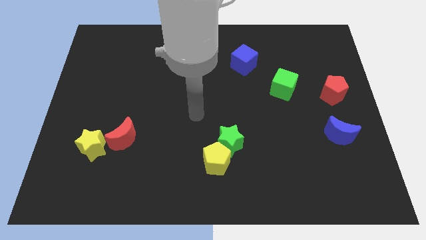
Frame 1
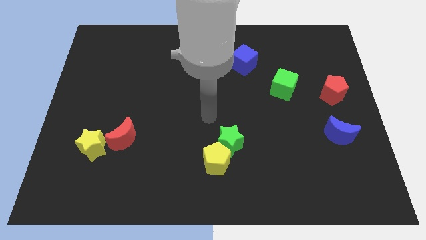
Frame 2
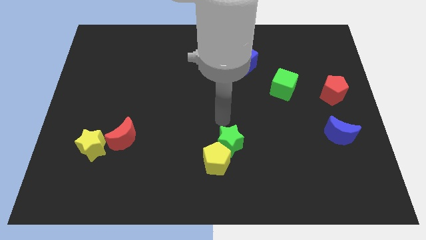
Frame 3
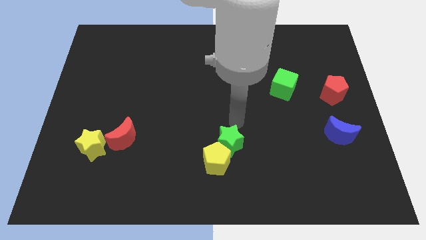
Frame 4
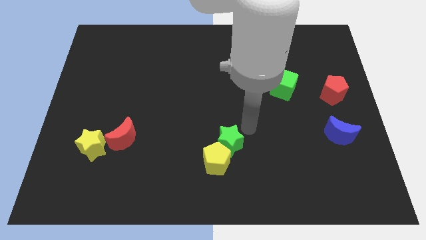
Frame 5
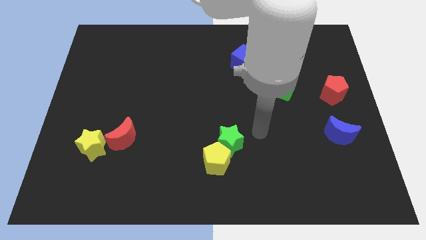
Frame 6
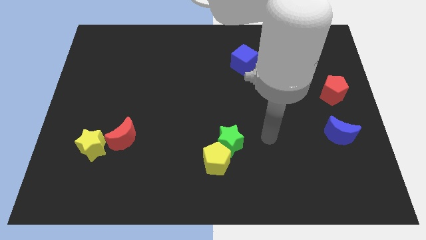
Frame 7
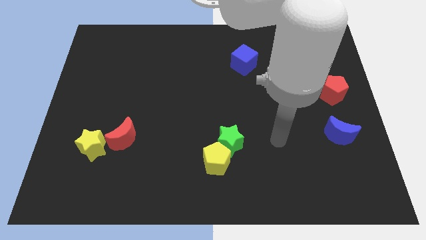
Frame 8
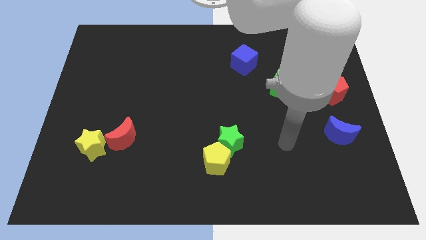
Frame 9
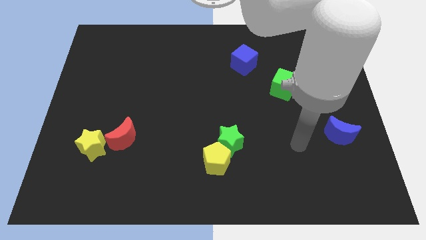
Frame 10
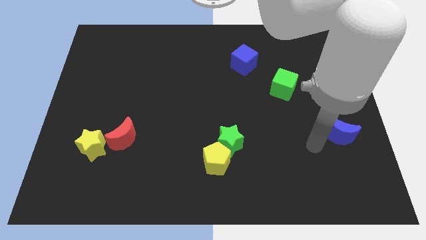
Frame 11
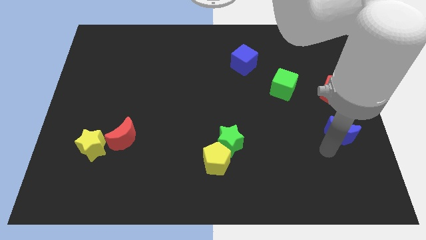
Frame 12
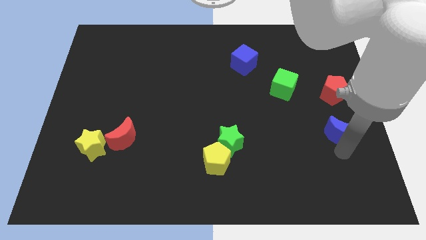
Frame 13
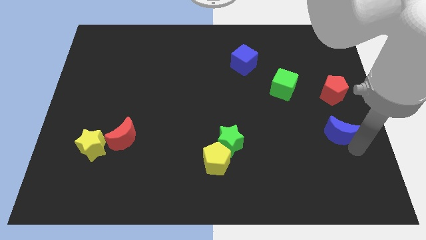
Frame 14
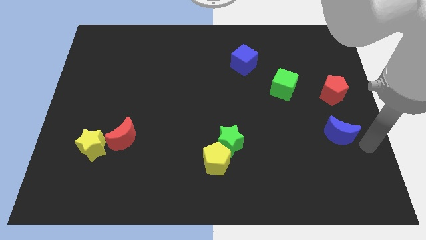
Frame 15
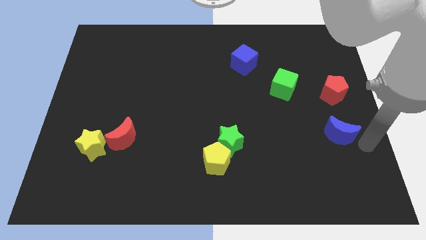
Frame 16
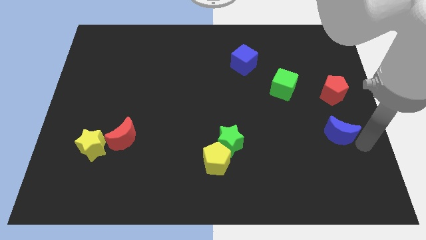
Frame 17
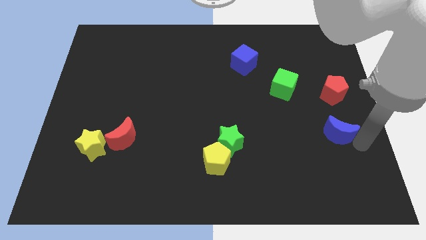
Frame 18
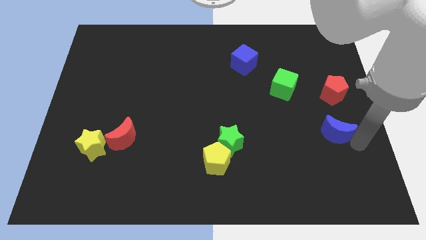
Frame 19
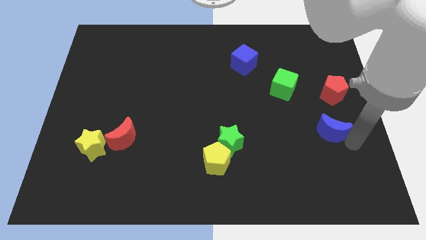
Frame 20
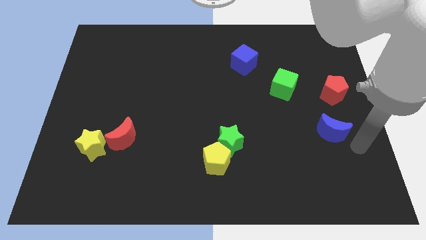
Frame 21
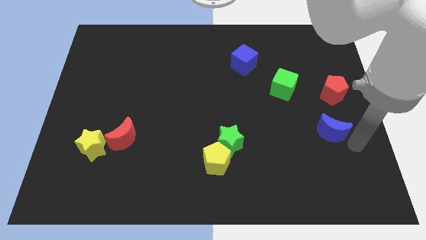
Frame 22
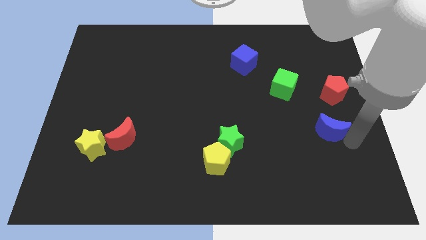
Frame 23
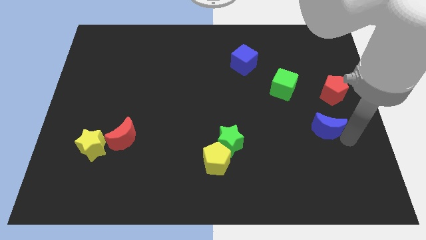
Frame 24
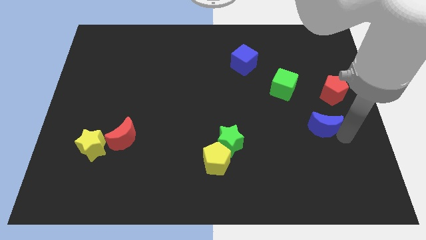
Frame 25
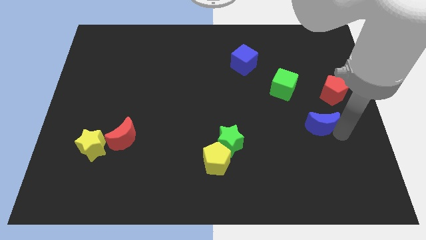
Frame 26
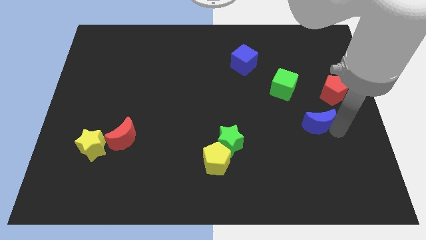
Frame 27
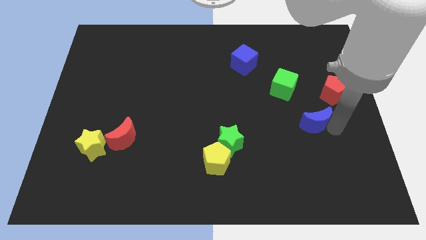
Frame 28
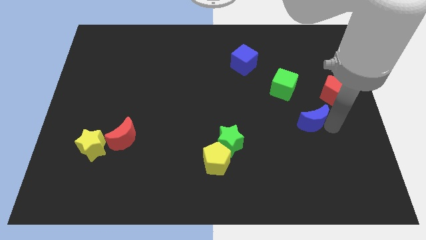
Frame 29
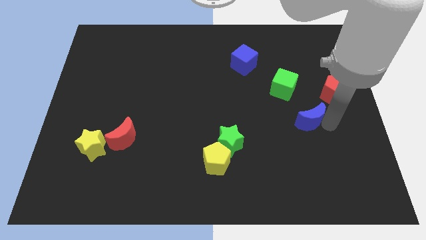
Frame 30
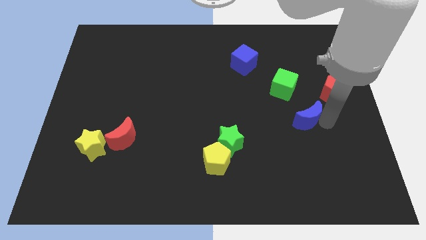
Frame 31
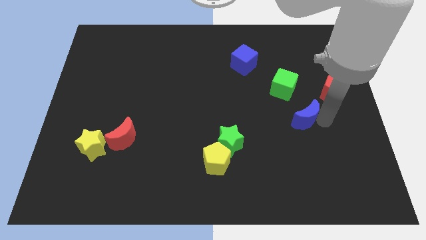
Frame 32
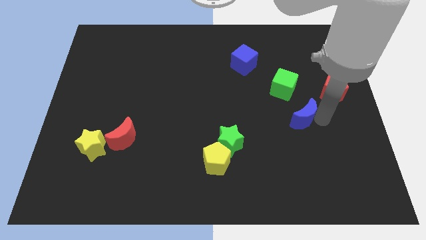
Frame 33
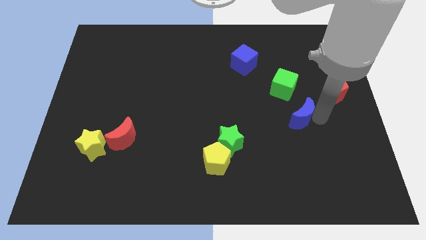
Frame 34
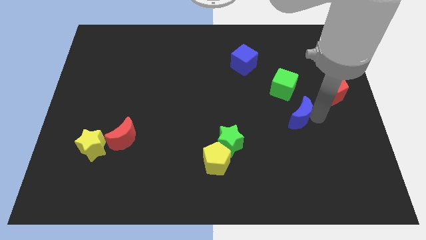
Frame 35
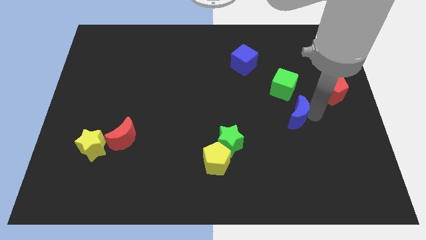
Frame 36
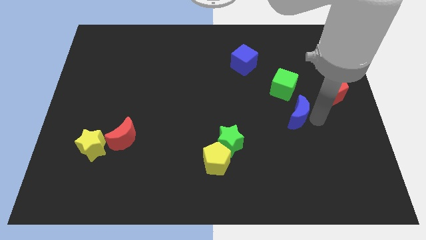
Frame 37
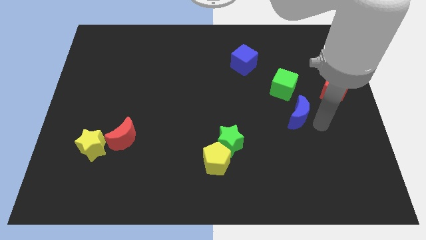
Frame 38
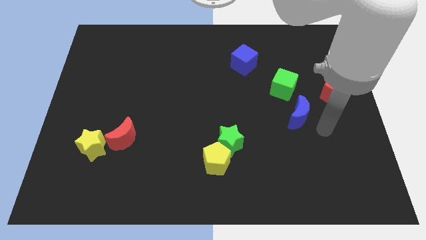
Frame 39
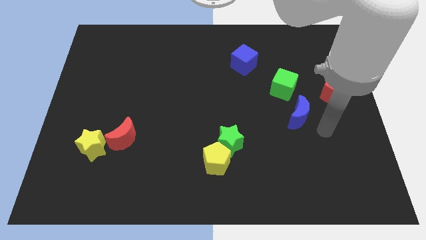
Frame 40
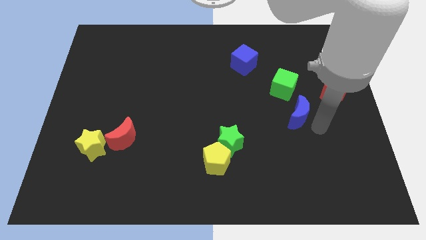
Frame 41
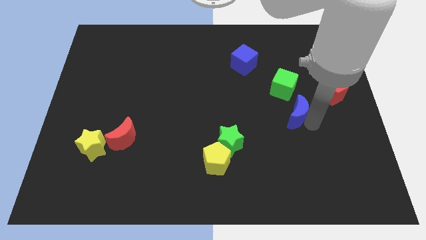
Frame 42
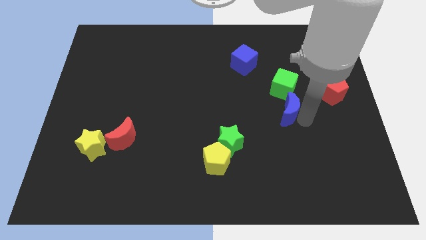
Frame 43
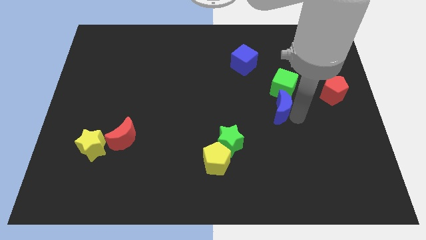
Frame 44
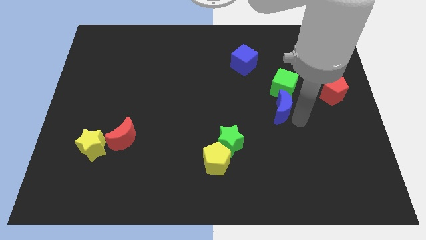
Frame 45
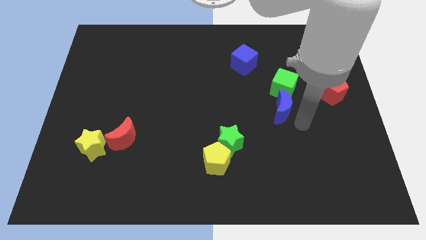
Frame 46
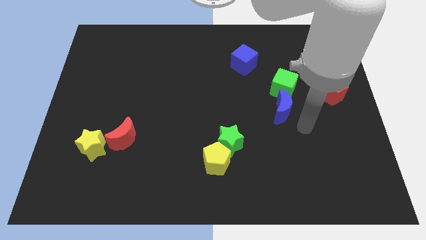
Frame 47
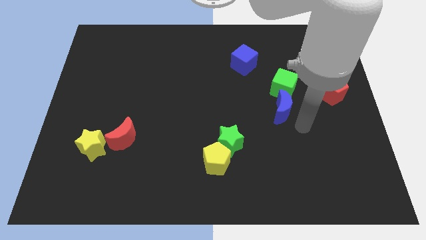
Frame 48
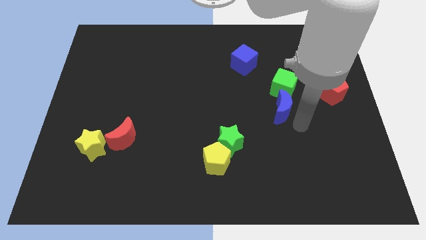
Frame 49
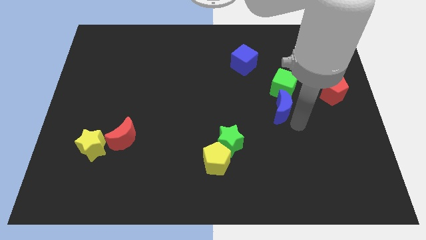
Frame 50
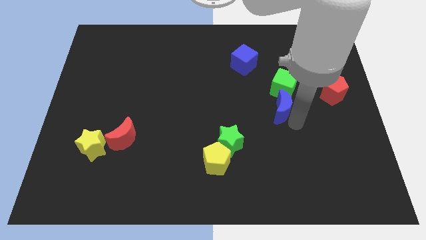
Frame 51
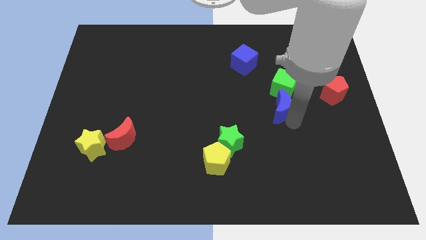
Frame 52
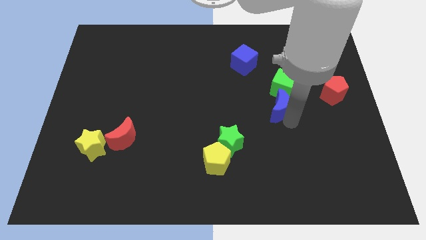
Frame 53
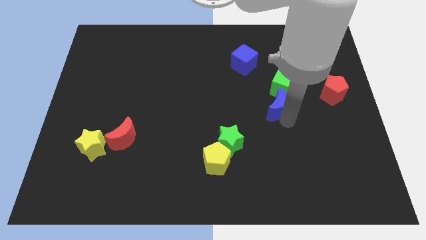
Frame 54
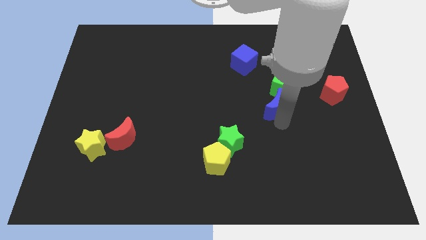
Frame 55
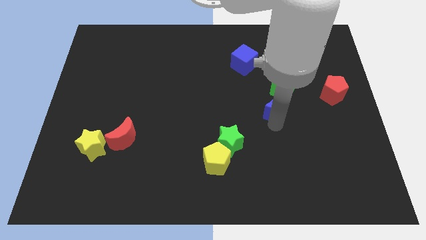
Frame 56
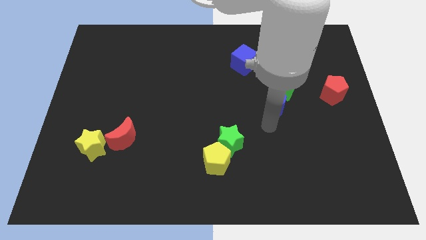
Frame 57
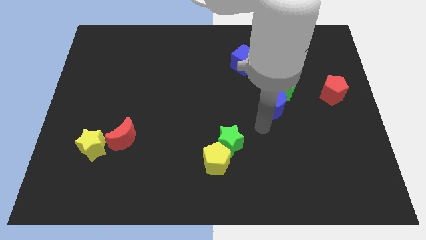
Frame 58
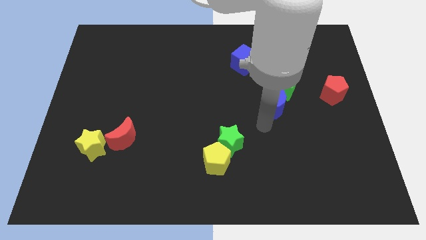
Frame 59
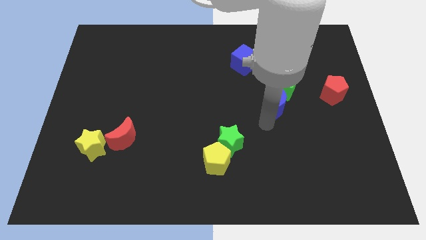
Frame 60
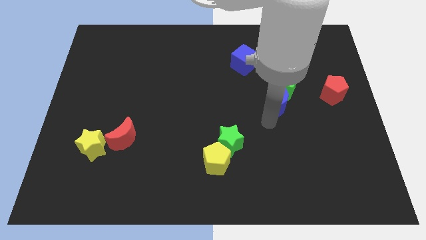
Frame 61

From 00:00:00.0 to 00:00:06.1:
slide the blue moon just left of the red pentagon

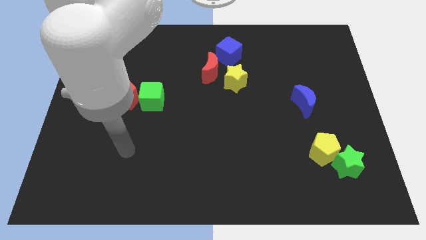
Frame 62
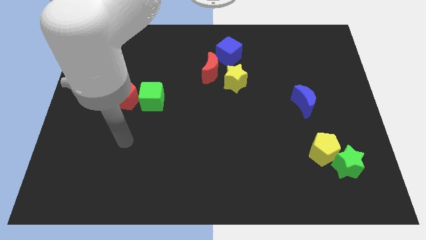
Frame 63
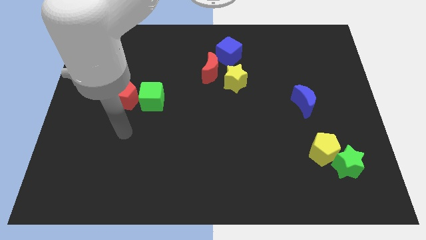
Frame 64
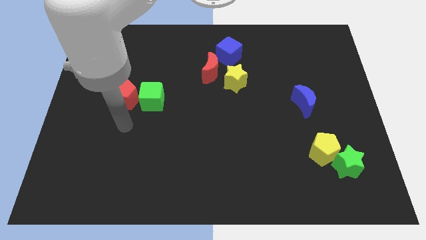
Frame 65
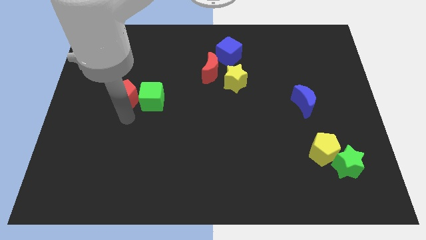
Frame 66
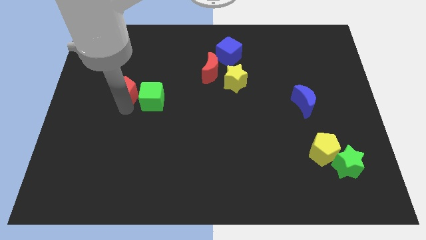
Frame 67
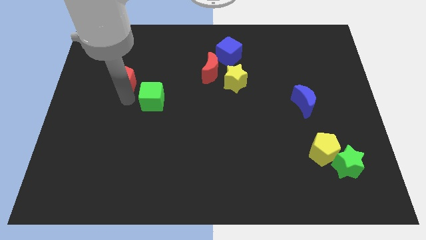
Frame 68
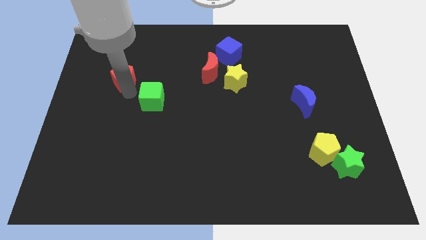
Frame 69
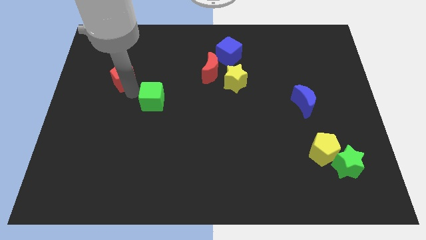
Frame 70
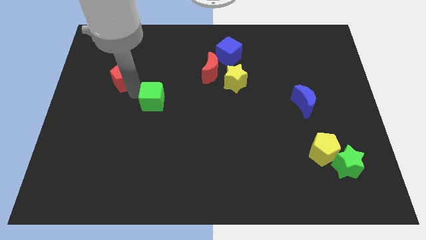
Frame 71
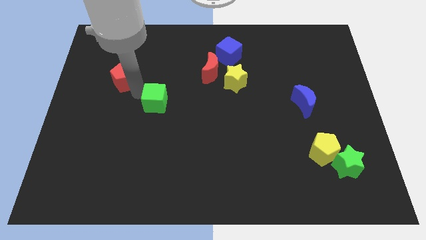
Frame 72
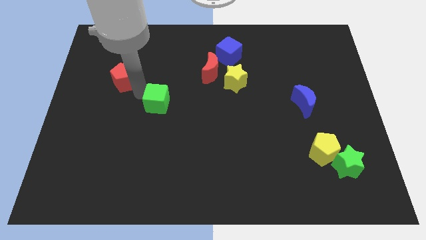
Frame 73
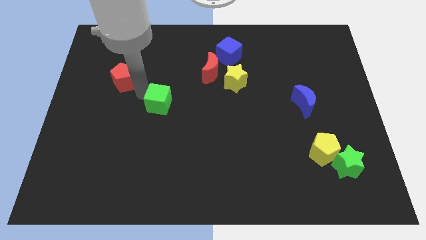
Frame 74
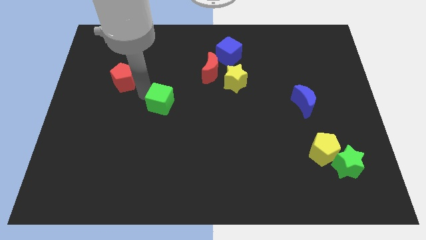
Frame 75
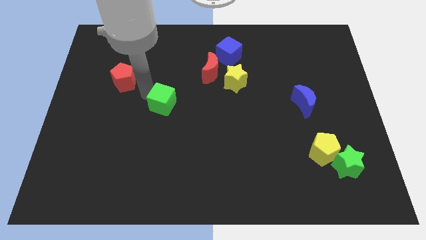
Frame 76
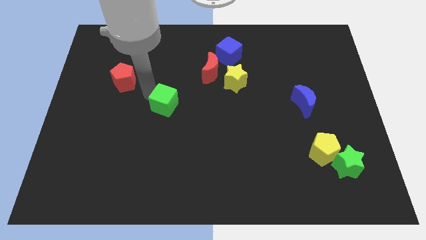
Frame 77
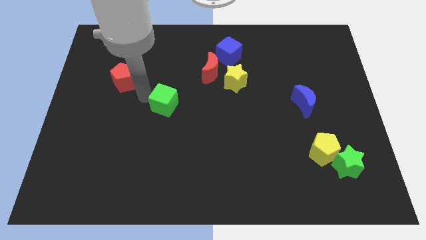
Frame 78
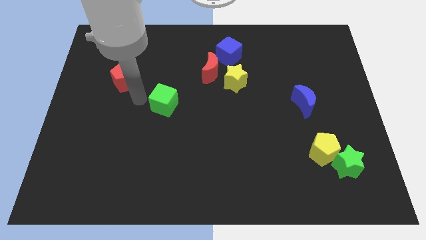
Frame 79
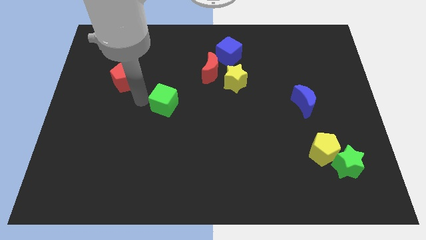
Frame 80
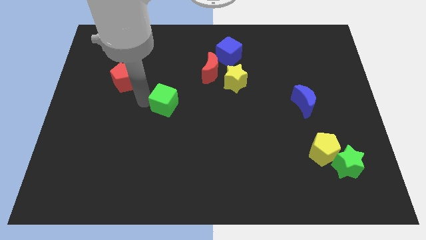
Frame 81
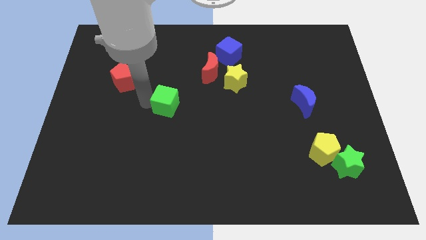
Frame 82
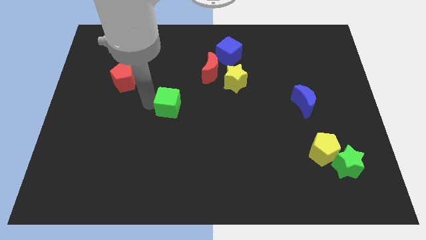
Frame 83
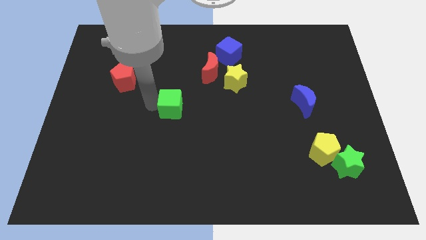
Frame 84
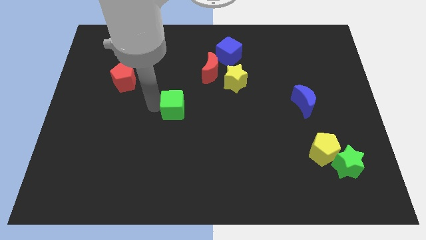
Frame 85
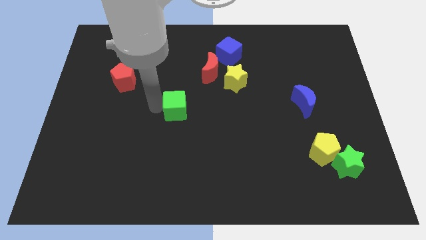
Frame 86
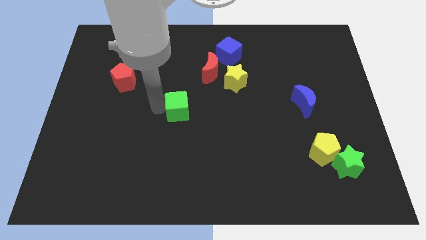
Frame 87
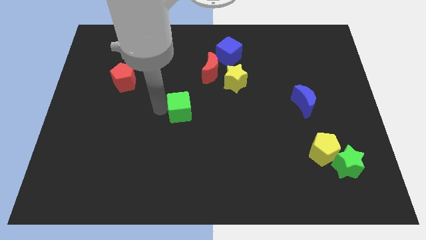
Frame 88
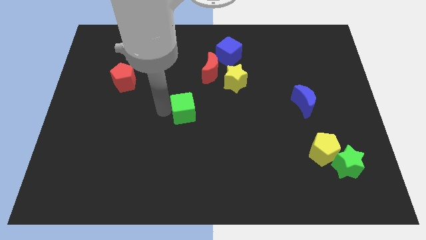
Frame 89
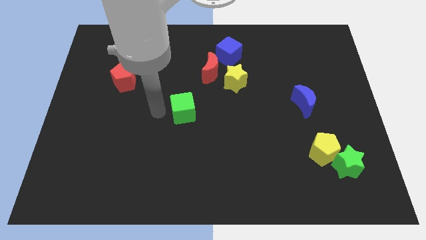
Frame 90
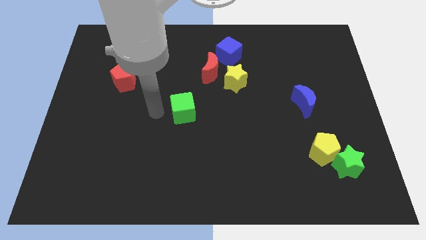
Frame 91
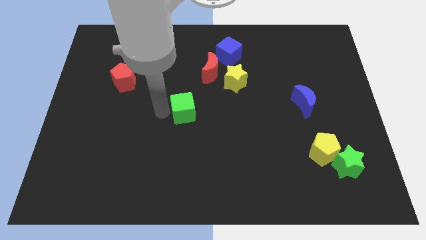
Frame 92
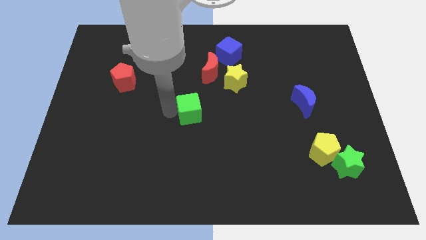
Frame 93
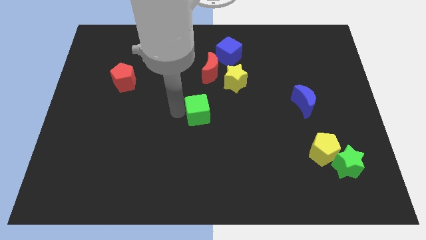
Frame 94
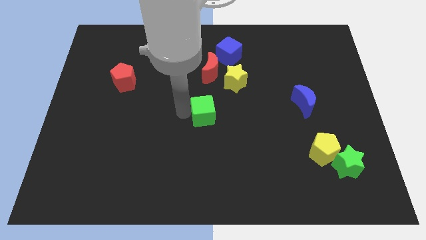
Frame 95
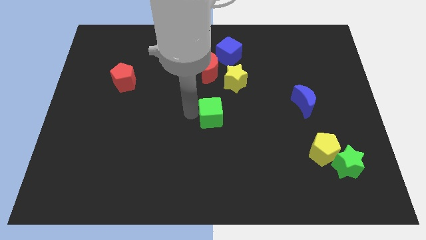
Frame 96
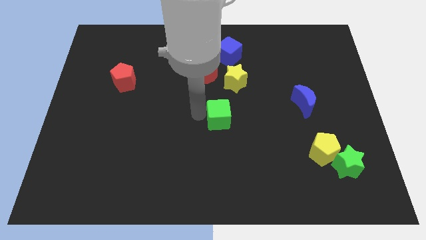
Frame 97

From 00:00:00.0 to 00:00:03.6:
put the green cube to the bottom of the yellow star
